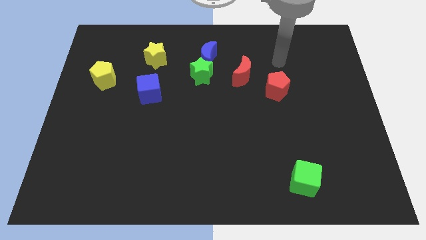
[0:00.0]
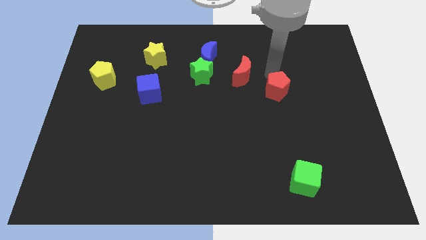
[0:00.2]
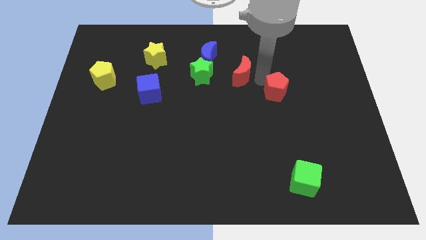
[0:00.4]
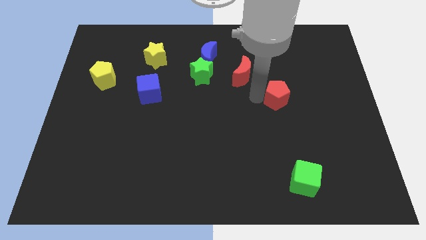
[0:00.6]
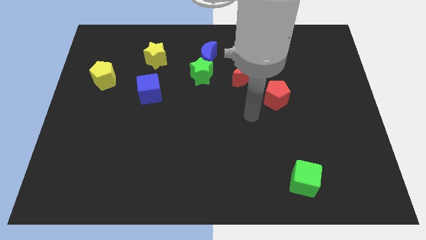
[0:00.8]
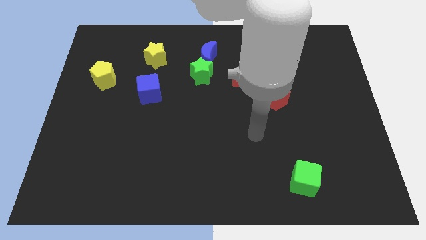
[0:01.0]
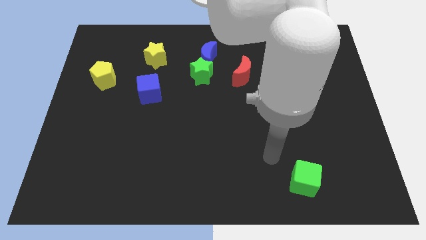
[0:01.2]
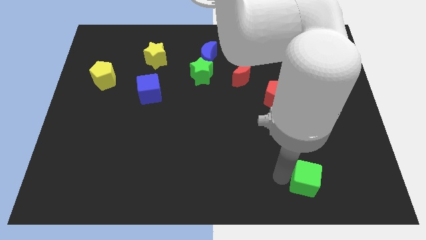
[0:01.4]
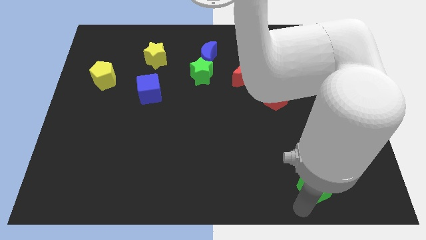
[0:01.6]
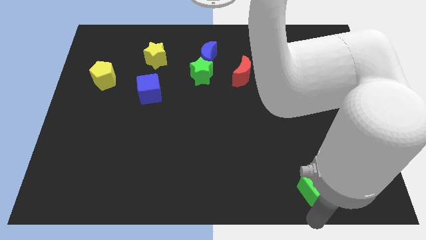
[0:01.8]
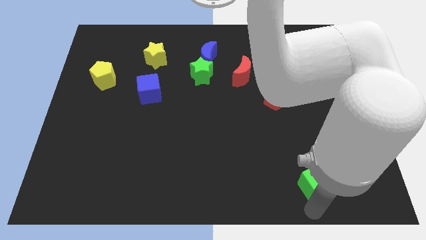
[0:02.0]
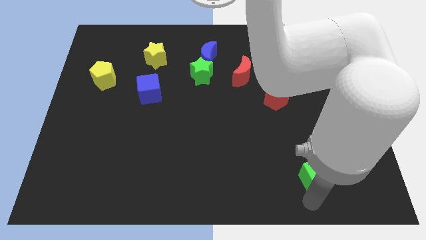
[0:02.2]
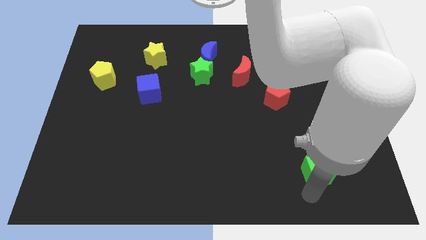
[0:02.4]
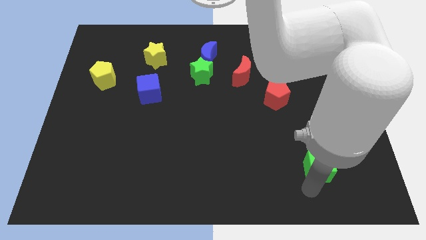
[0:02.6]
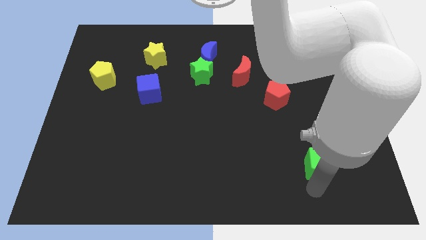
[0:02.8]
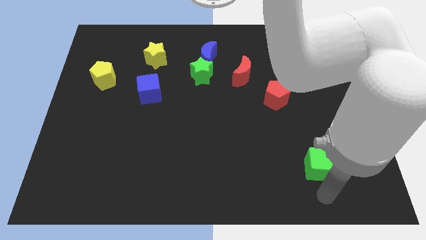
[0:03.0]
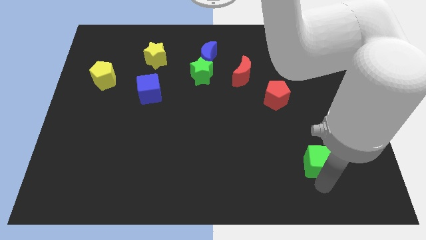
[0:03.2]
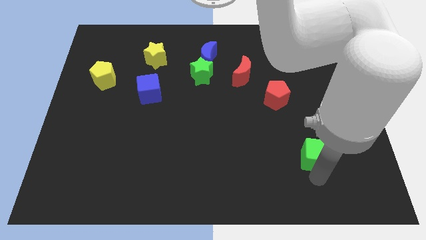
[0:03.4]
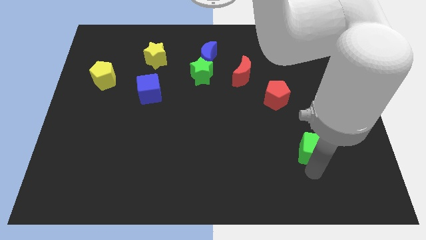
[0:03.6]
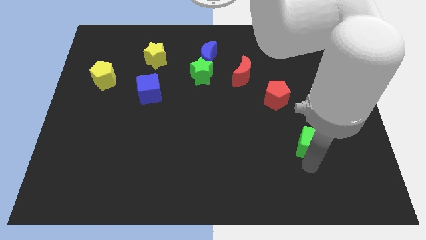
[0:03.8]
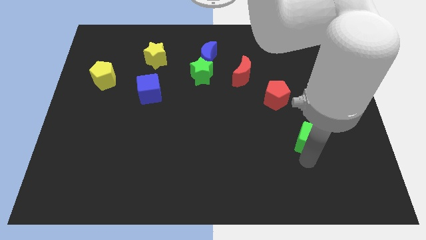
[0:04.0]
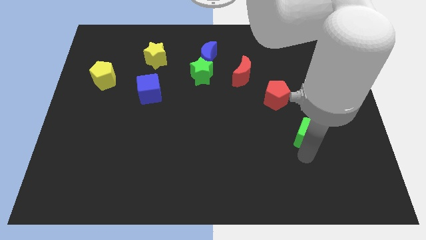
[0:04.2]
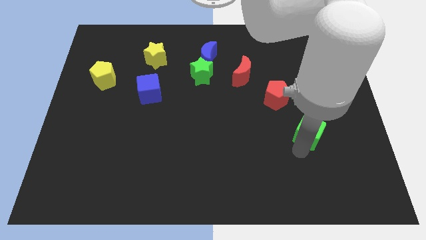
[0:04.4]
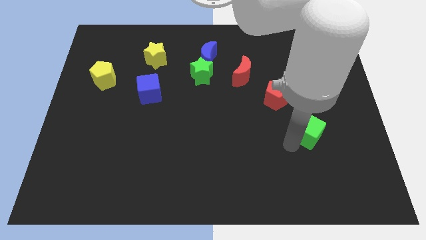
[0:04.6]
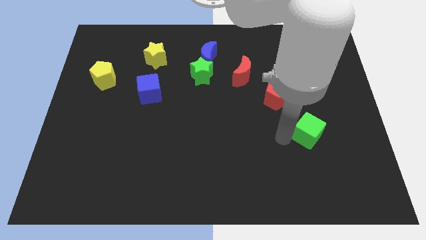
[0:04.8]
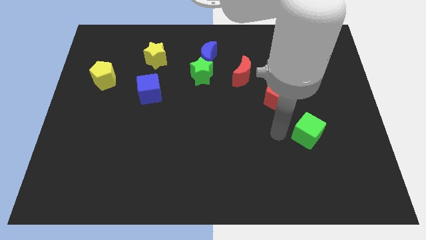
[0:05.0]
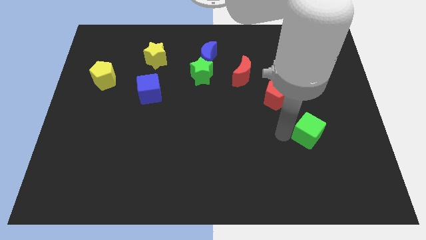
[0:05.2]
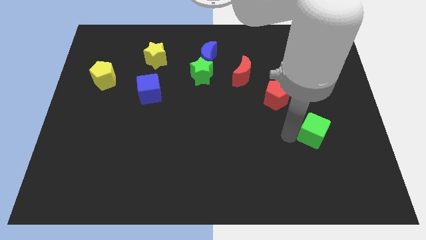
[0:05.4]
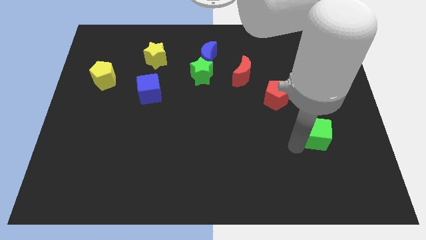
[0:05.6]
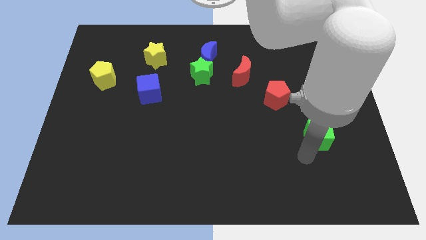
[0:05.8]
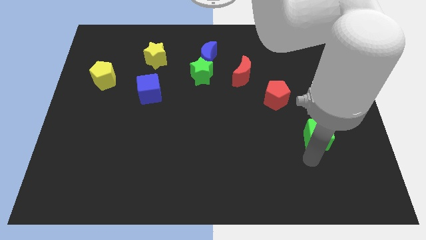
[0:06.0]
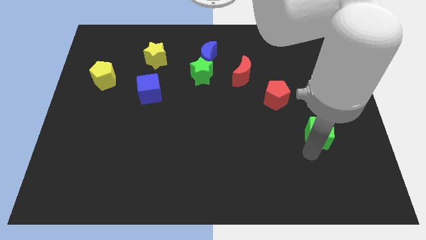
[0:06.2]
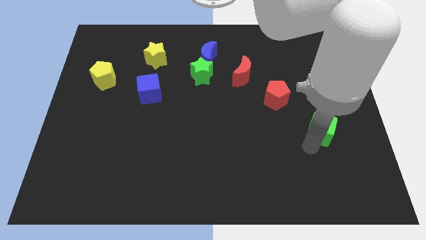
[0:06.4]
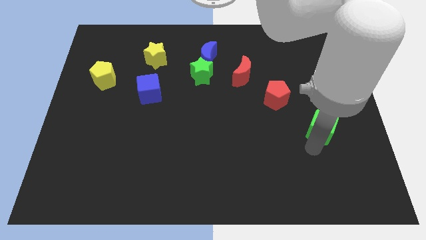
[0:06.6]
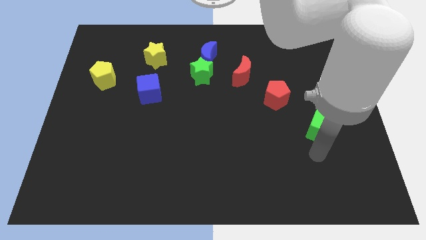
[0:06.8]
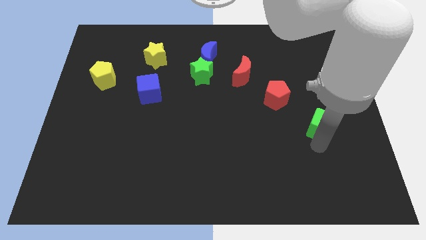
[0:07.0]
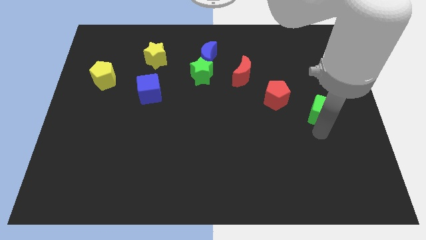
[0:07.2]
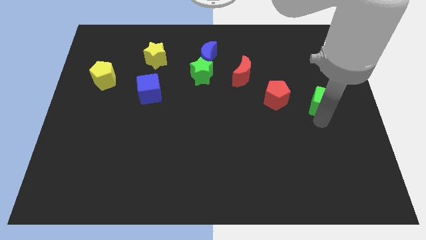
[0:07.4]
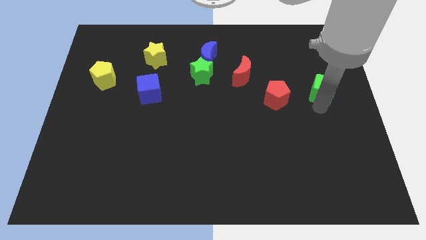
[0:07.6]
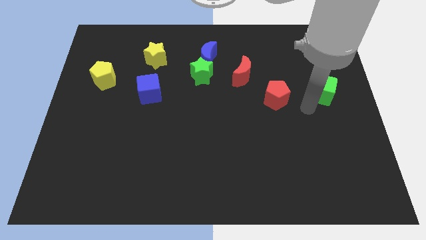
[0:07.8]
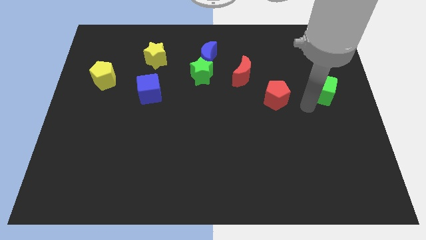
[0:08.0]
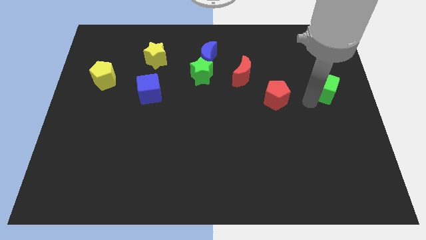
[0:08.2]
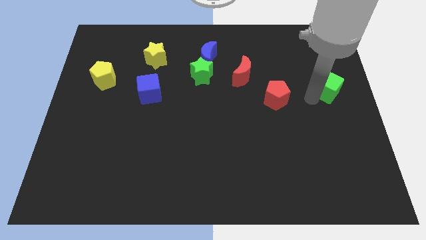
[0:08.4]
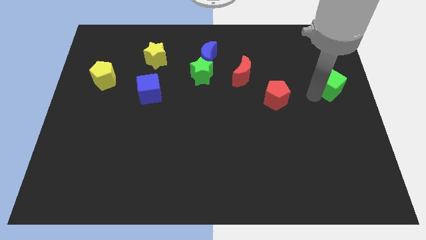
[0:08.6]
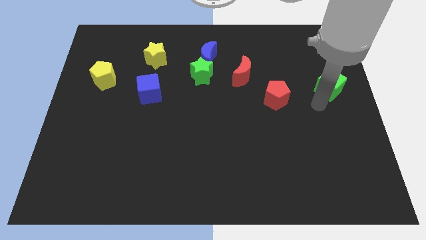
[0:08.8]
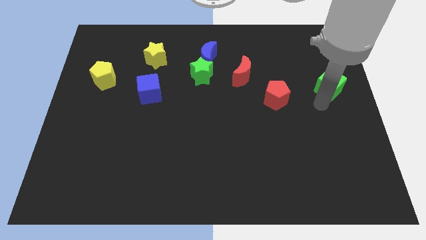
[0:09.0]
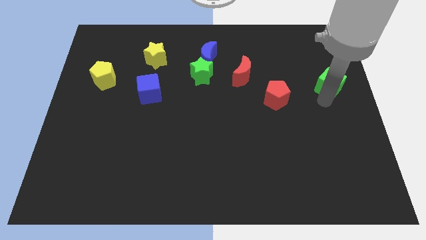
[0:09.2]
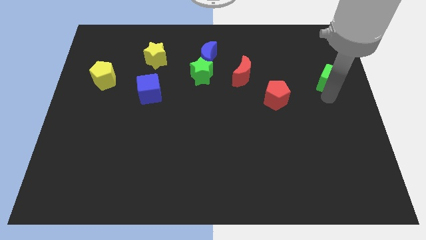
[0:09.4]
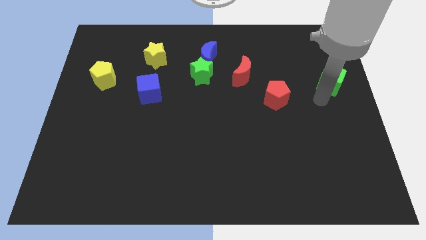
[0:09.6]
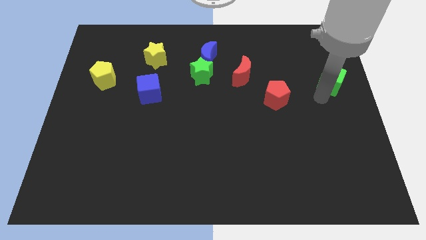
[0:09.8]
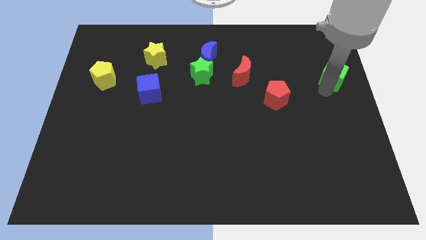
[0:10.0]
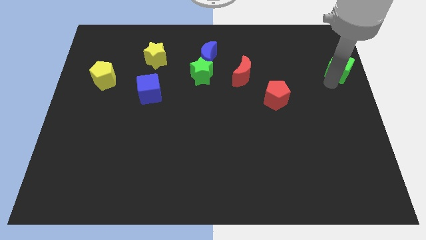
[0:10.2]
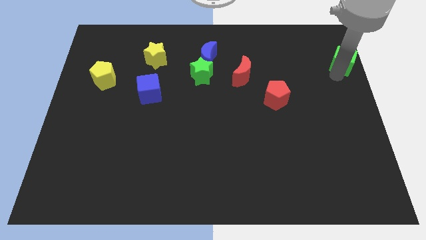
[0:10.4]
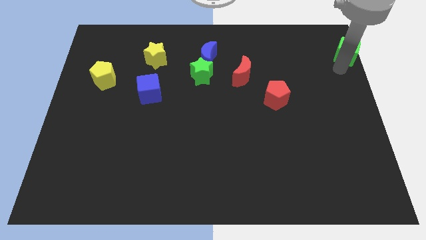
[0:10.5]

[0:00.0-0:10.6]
put the green cube to the top right corner

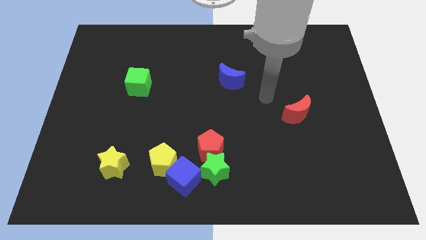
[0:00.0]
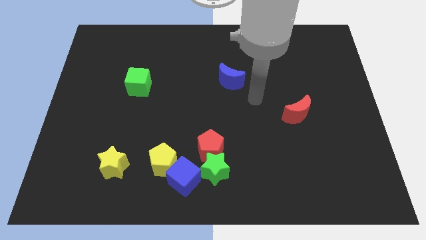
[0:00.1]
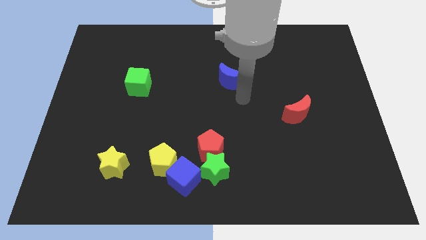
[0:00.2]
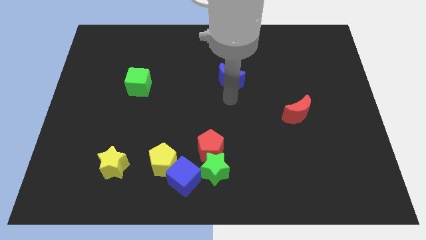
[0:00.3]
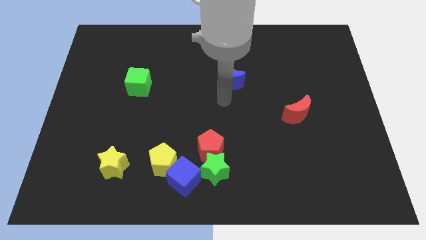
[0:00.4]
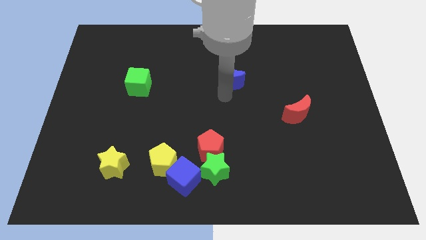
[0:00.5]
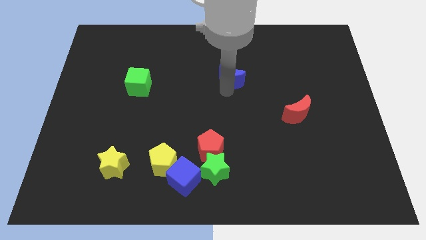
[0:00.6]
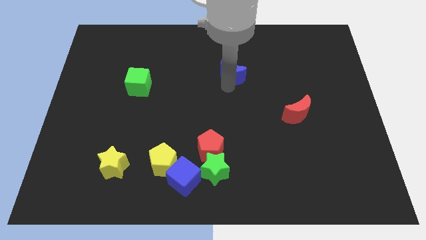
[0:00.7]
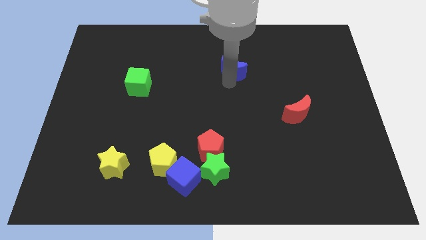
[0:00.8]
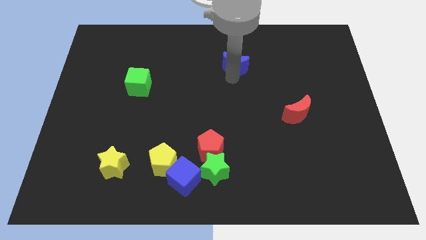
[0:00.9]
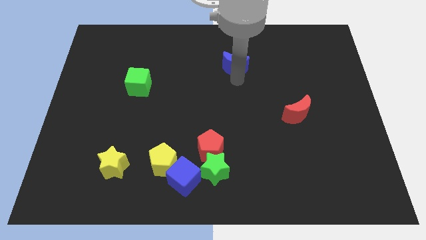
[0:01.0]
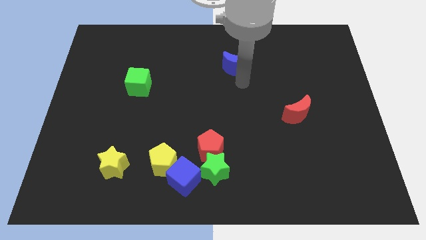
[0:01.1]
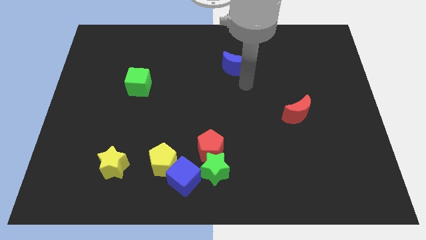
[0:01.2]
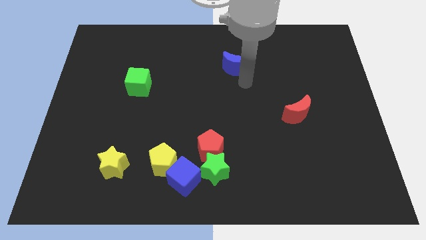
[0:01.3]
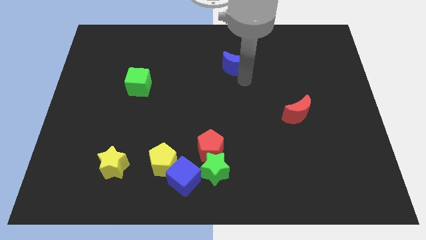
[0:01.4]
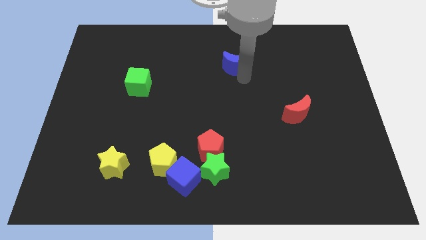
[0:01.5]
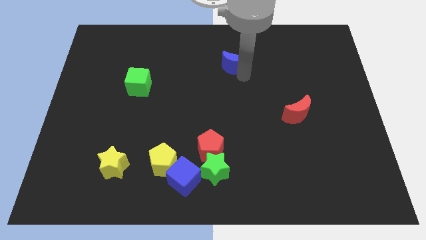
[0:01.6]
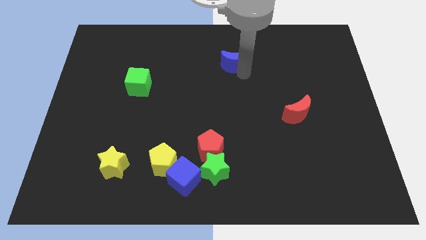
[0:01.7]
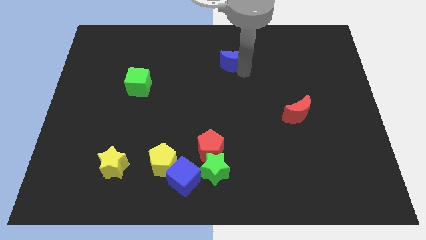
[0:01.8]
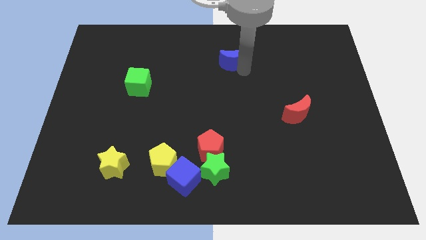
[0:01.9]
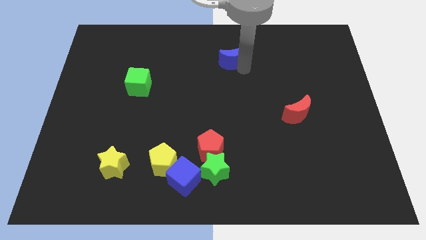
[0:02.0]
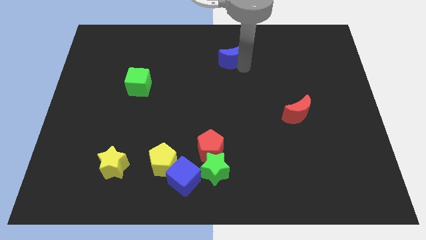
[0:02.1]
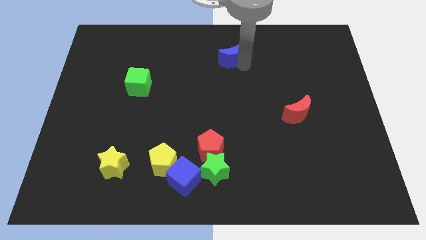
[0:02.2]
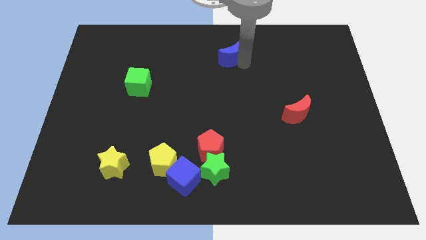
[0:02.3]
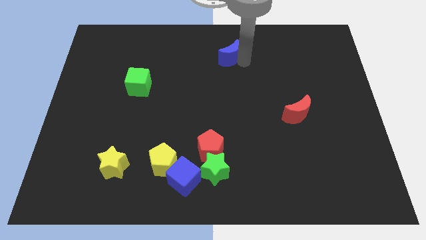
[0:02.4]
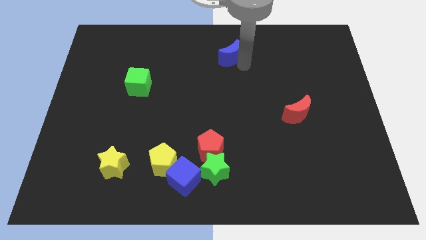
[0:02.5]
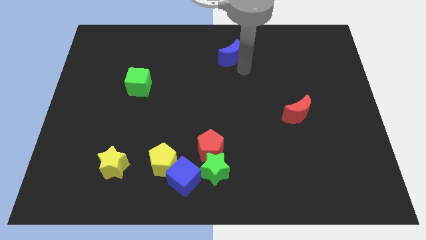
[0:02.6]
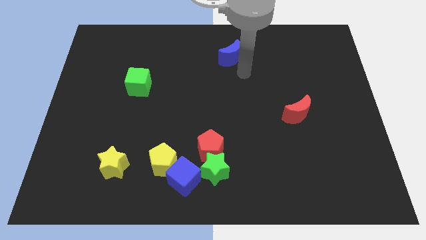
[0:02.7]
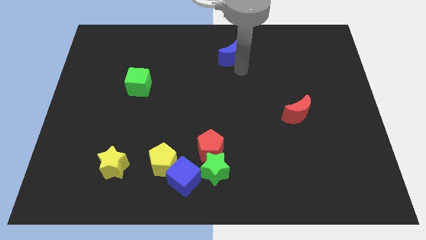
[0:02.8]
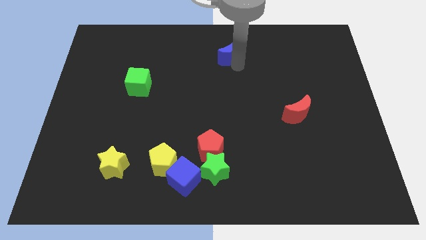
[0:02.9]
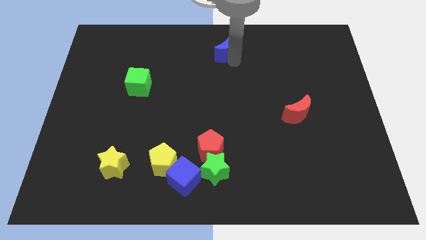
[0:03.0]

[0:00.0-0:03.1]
move the blue moon to the top side
